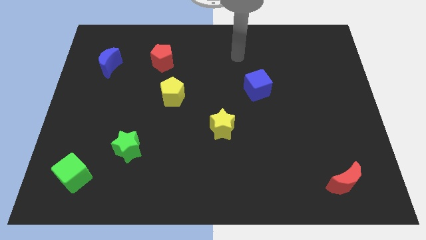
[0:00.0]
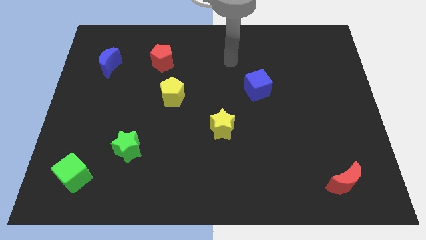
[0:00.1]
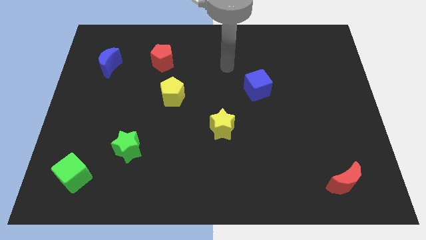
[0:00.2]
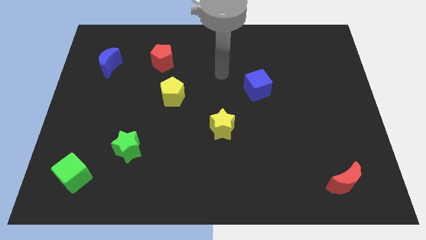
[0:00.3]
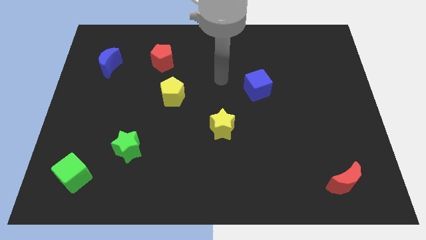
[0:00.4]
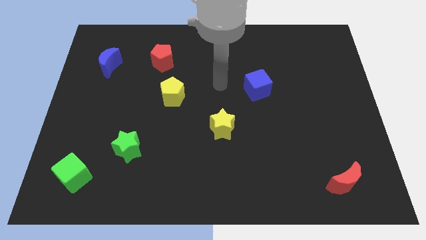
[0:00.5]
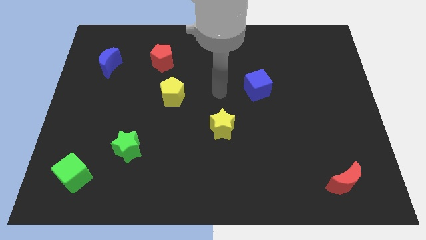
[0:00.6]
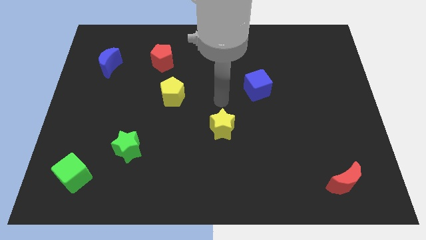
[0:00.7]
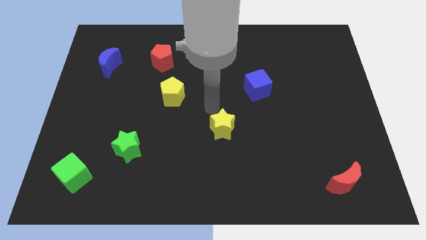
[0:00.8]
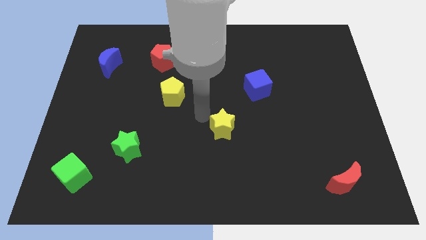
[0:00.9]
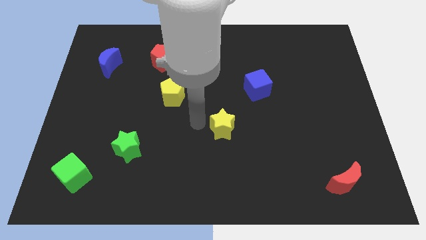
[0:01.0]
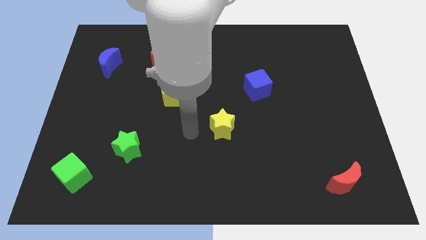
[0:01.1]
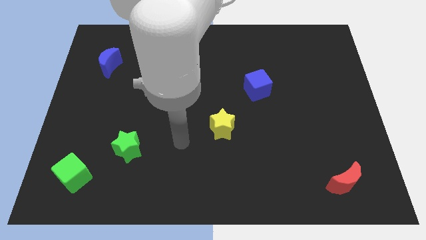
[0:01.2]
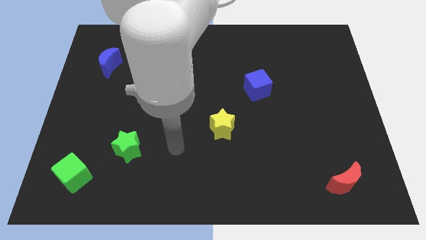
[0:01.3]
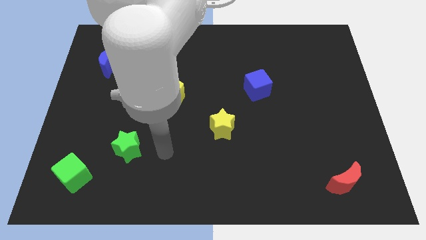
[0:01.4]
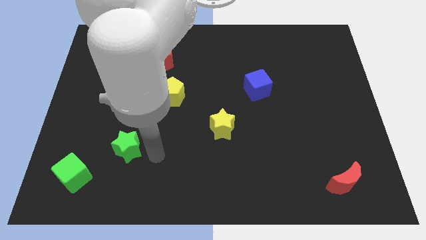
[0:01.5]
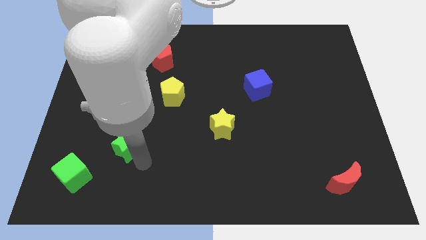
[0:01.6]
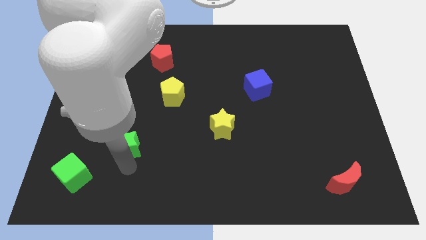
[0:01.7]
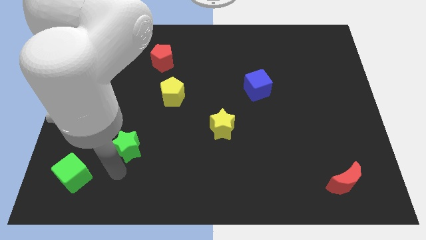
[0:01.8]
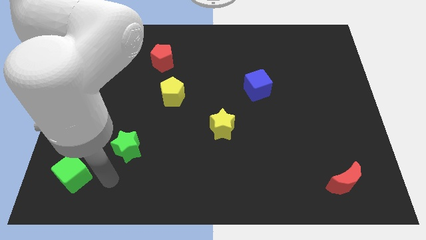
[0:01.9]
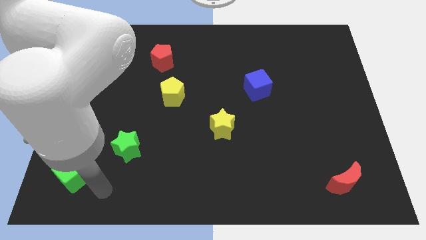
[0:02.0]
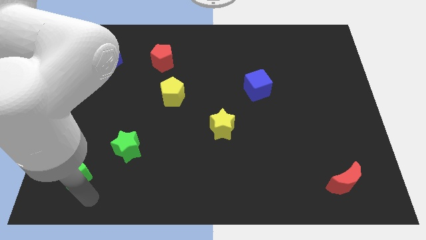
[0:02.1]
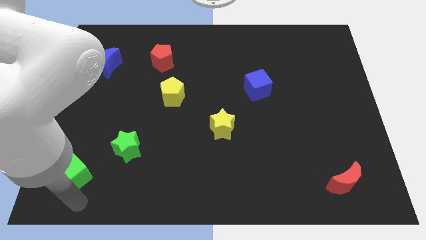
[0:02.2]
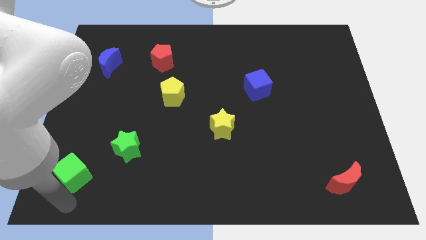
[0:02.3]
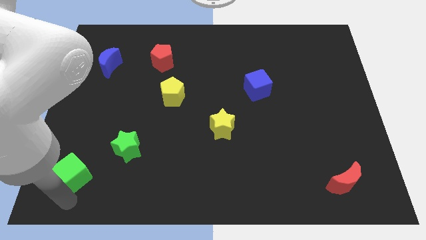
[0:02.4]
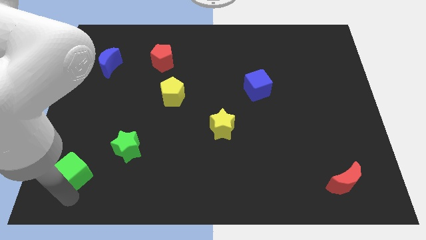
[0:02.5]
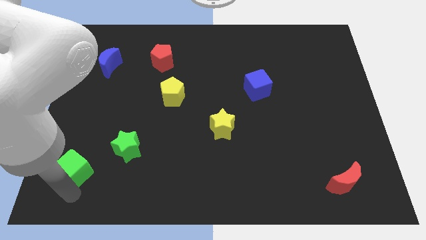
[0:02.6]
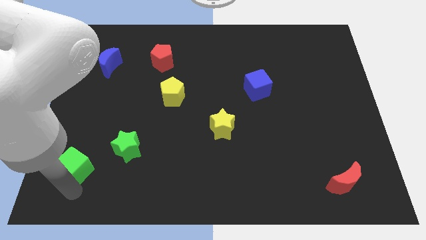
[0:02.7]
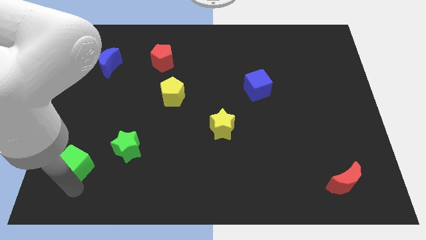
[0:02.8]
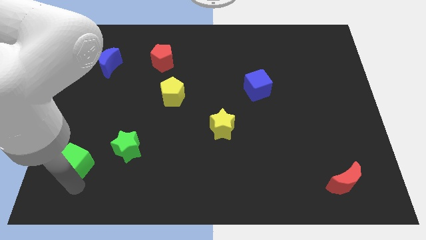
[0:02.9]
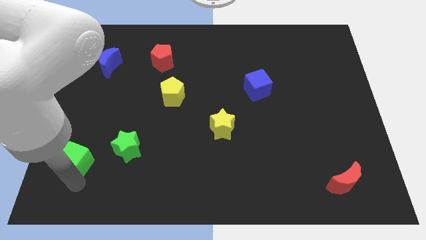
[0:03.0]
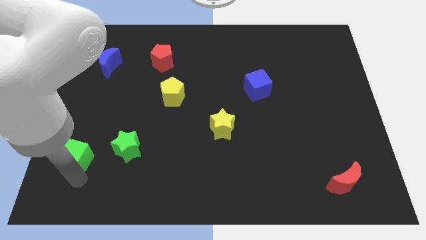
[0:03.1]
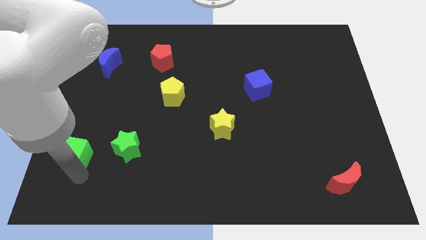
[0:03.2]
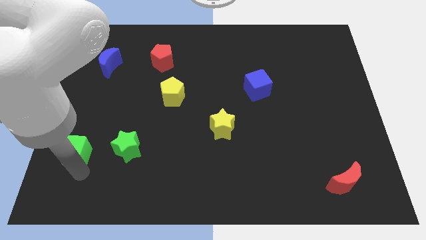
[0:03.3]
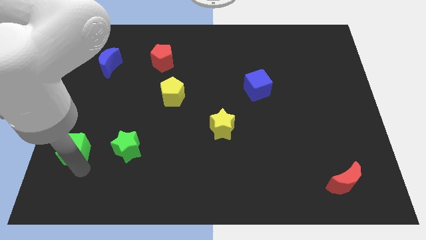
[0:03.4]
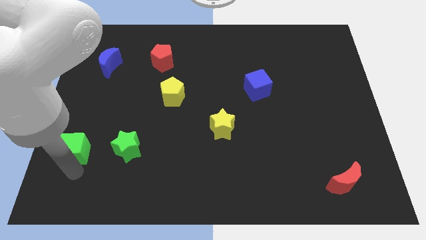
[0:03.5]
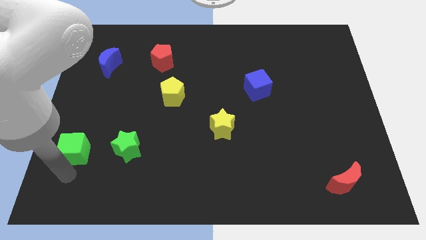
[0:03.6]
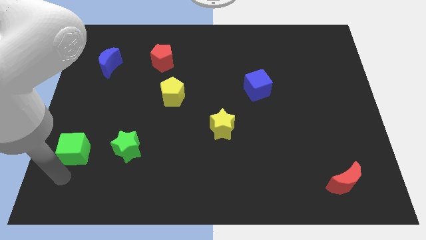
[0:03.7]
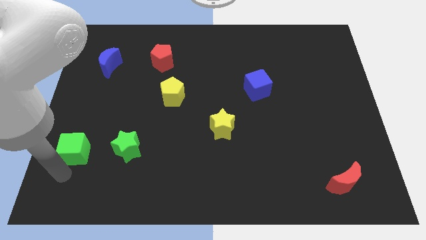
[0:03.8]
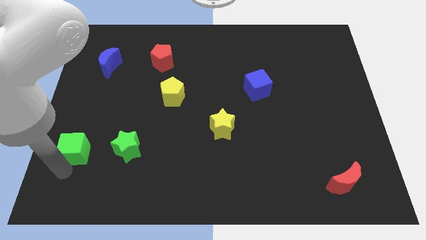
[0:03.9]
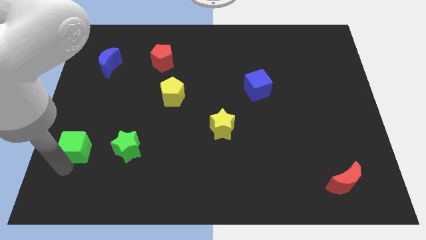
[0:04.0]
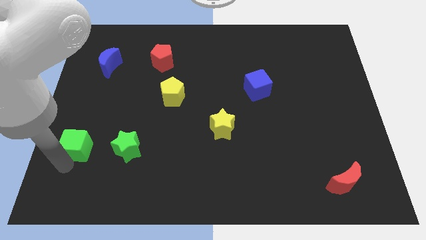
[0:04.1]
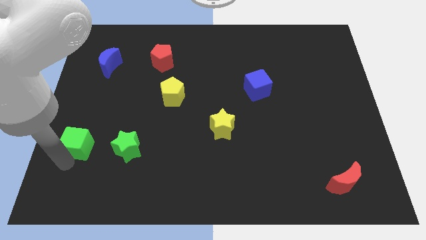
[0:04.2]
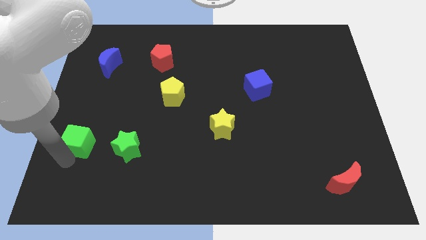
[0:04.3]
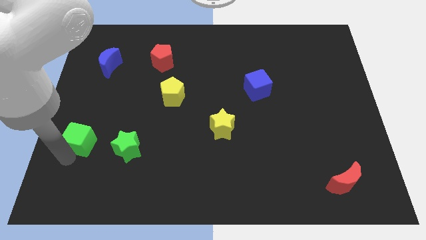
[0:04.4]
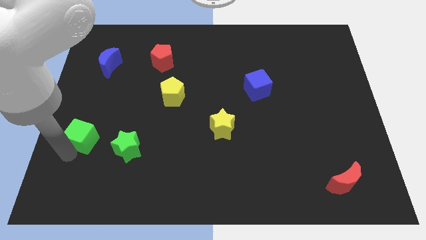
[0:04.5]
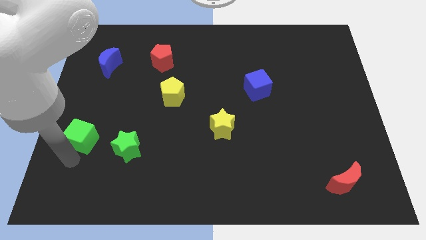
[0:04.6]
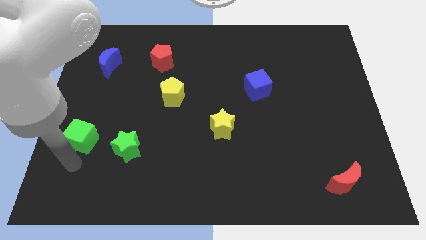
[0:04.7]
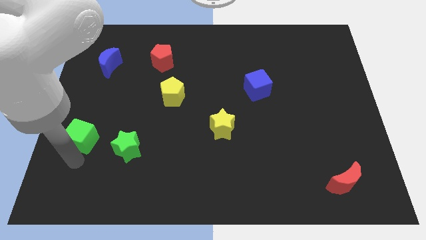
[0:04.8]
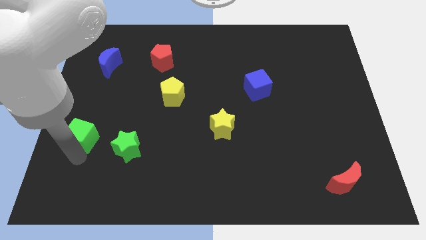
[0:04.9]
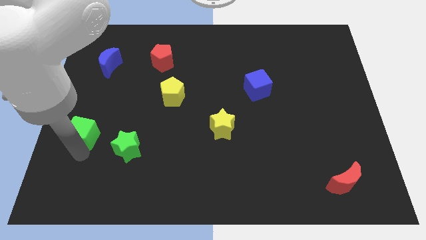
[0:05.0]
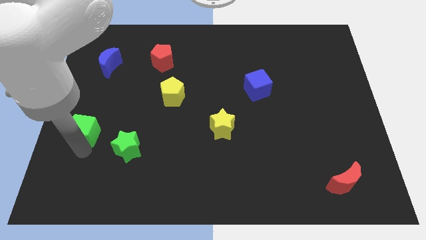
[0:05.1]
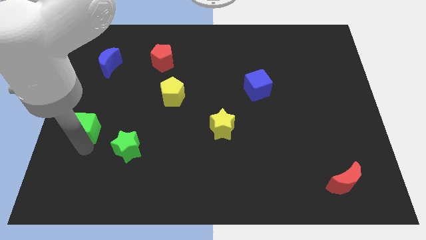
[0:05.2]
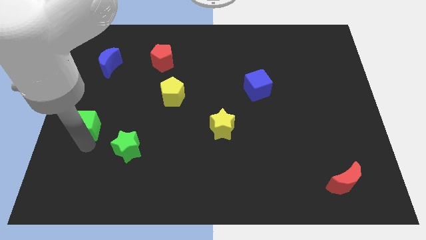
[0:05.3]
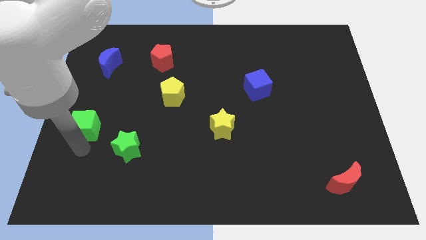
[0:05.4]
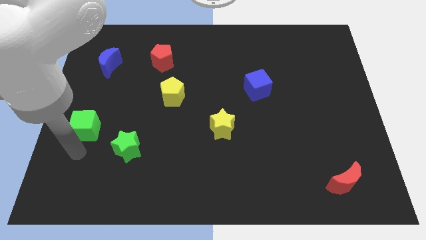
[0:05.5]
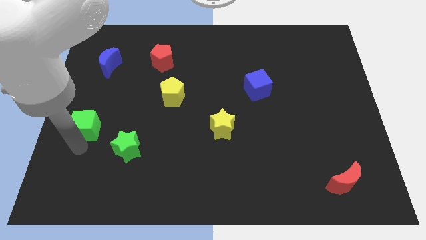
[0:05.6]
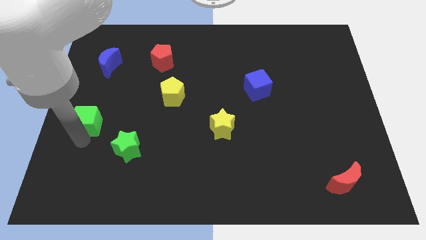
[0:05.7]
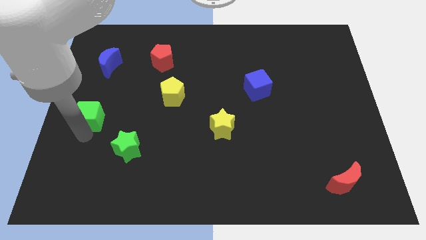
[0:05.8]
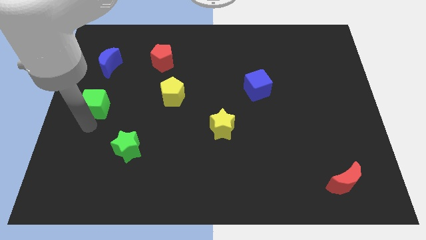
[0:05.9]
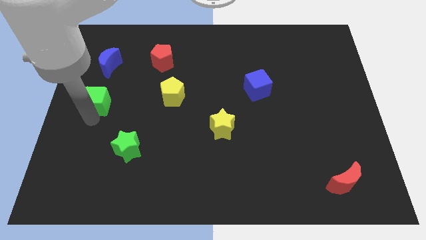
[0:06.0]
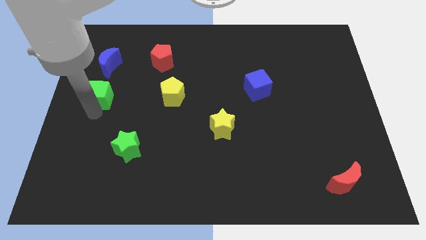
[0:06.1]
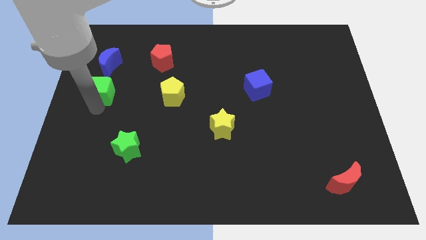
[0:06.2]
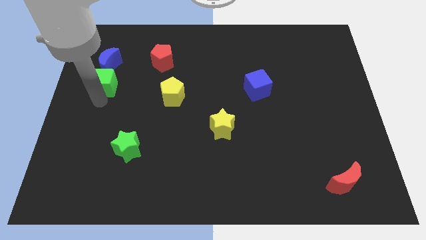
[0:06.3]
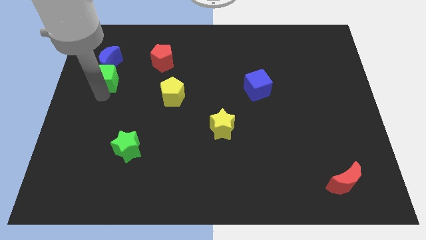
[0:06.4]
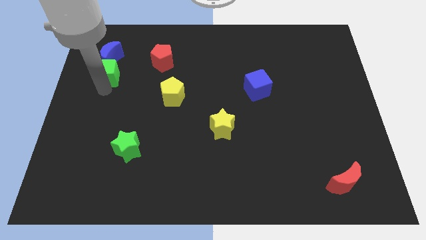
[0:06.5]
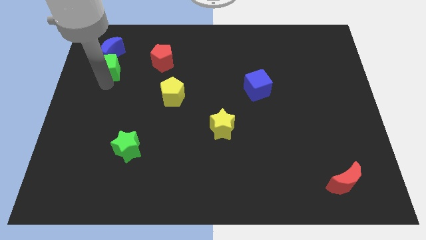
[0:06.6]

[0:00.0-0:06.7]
push the green cube towards the blue moon

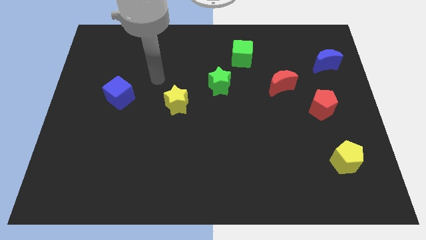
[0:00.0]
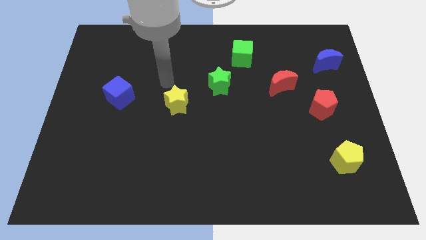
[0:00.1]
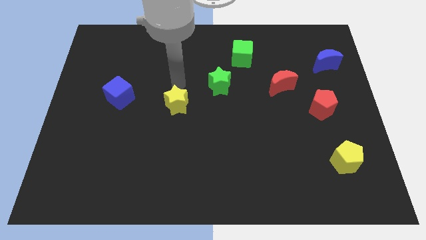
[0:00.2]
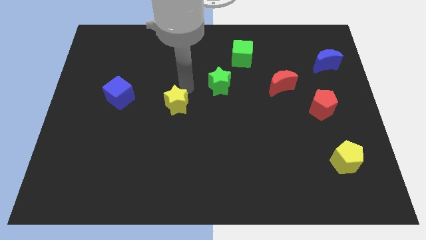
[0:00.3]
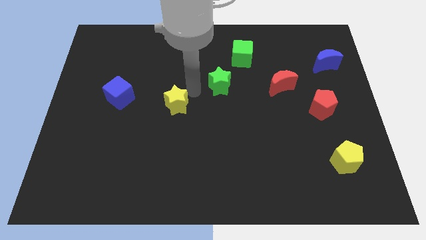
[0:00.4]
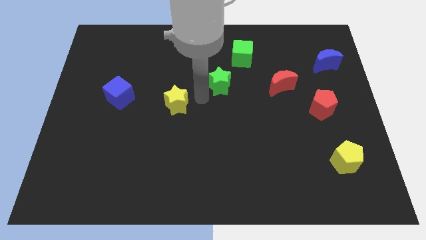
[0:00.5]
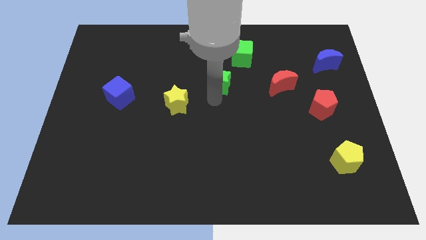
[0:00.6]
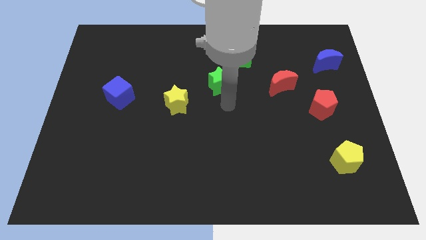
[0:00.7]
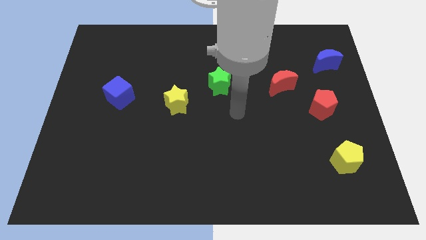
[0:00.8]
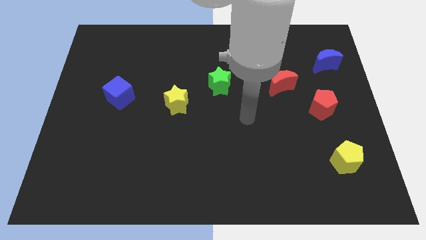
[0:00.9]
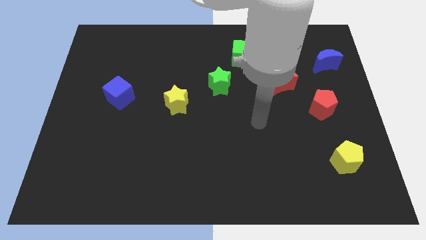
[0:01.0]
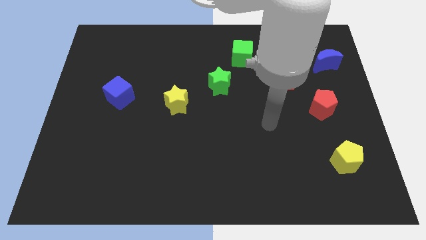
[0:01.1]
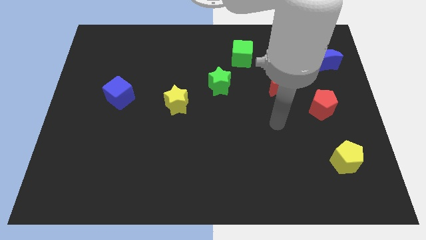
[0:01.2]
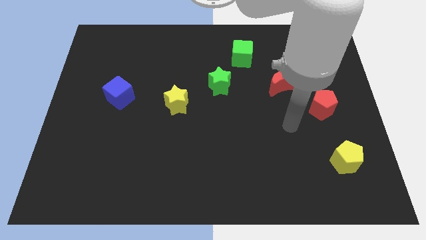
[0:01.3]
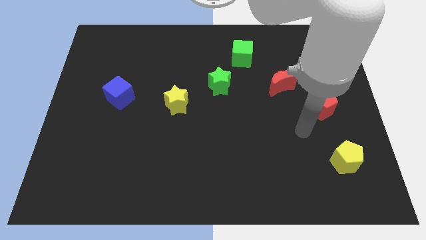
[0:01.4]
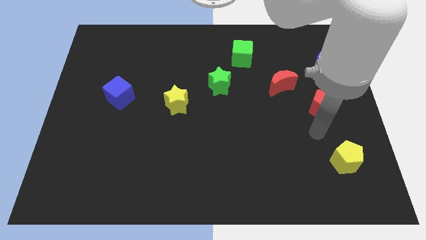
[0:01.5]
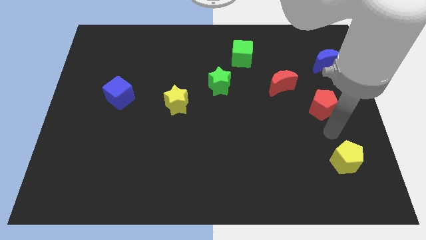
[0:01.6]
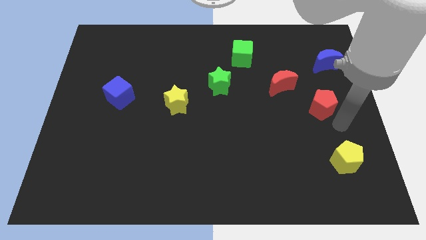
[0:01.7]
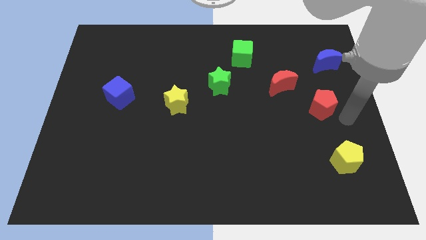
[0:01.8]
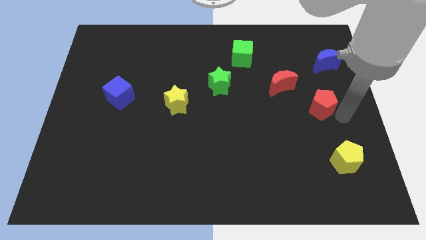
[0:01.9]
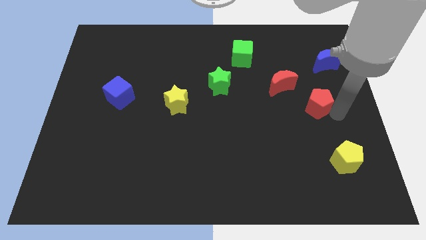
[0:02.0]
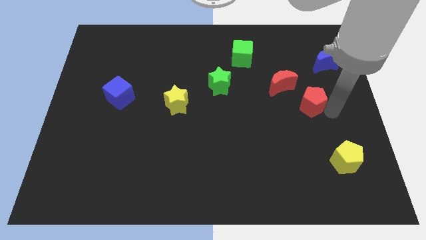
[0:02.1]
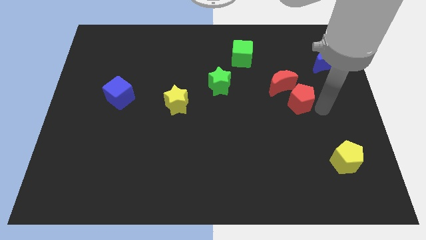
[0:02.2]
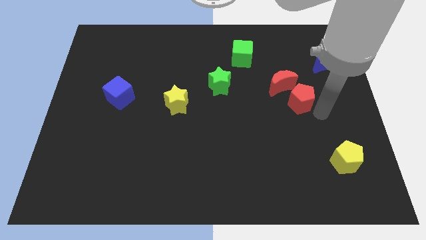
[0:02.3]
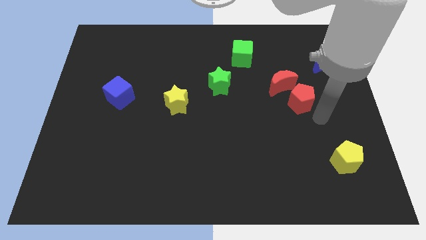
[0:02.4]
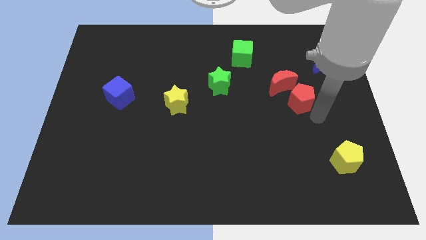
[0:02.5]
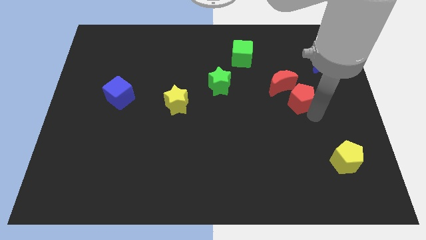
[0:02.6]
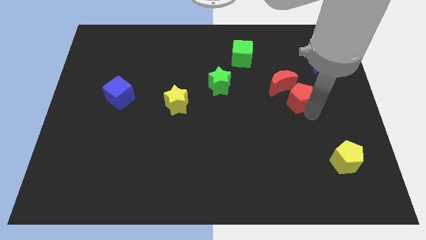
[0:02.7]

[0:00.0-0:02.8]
move the red pentagon to the red moon
